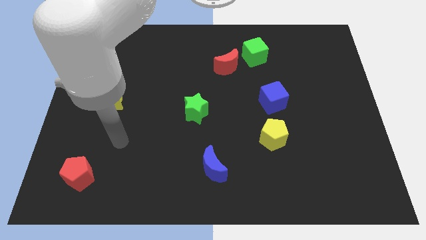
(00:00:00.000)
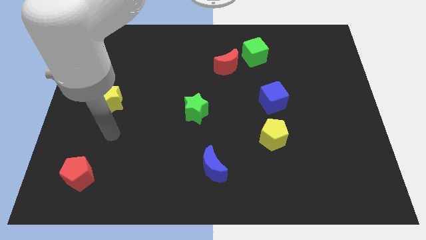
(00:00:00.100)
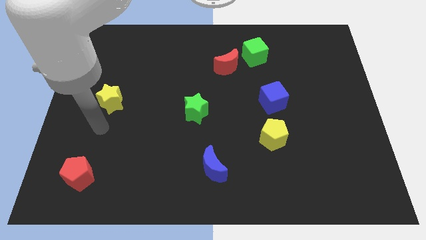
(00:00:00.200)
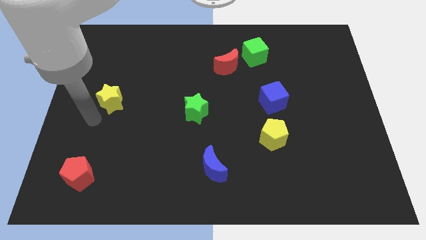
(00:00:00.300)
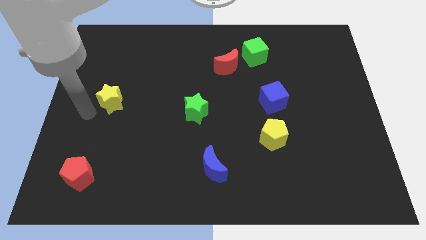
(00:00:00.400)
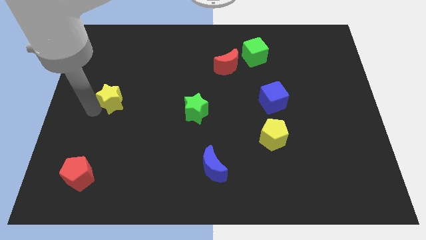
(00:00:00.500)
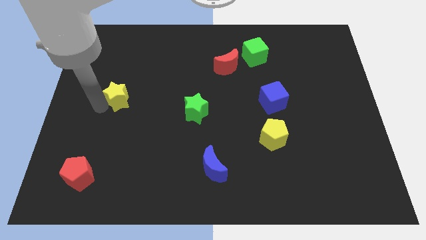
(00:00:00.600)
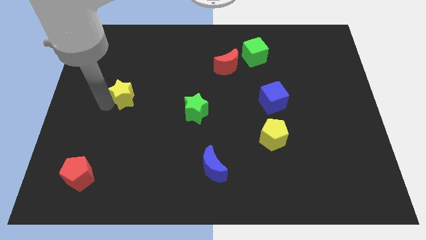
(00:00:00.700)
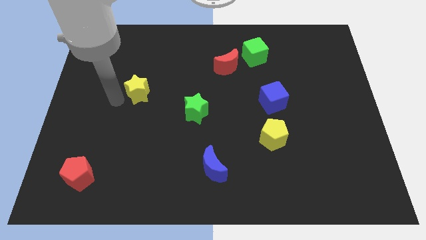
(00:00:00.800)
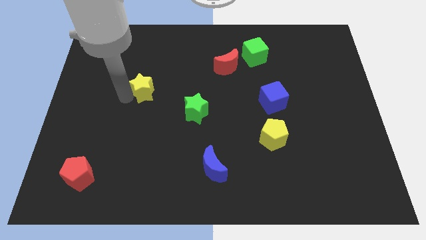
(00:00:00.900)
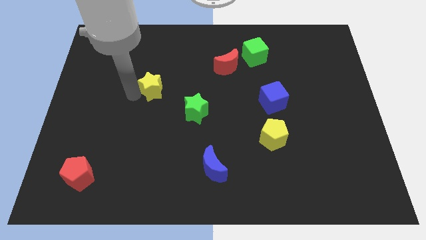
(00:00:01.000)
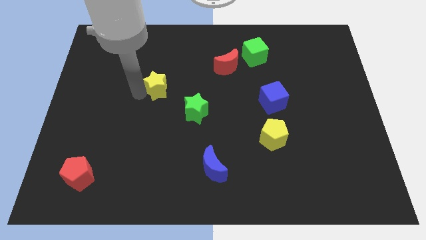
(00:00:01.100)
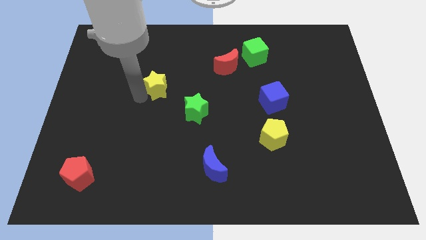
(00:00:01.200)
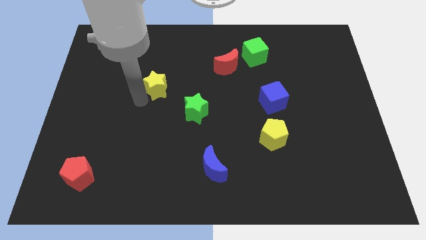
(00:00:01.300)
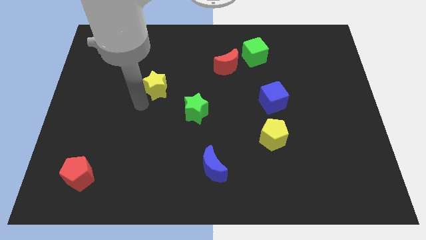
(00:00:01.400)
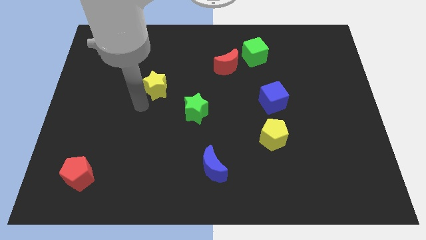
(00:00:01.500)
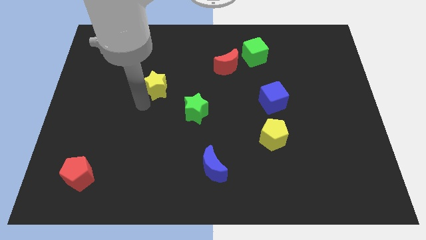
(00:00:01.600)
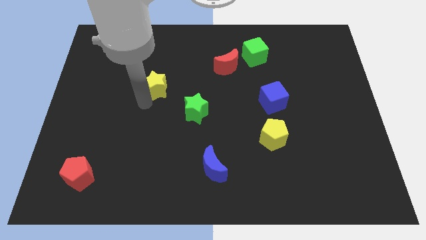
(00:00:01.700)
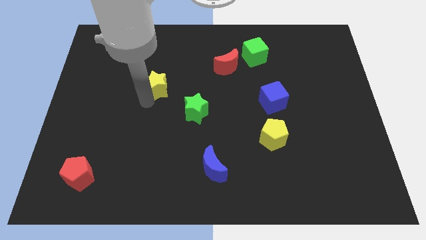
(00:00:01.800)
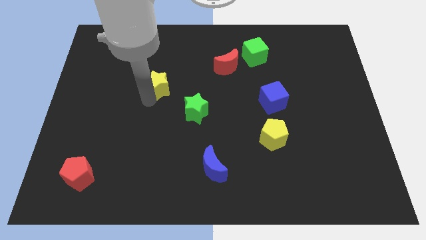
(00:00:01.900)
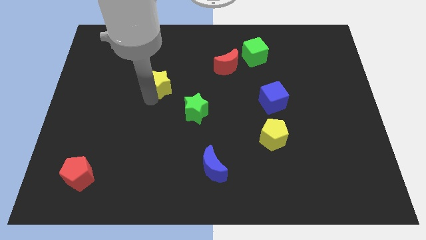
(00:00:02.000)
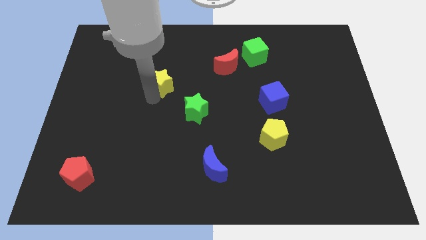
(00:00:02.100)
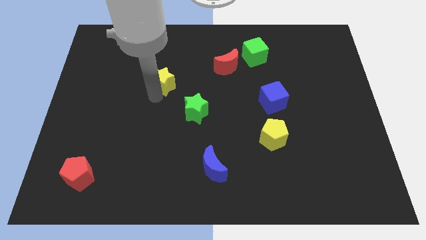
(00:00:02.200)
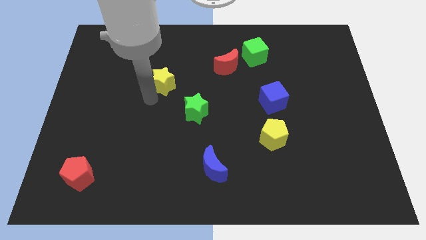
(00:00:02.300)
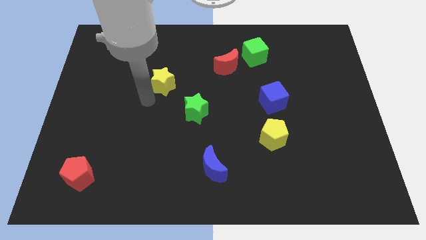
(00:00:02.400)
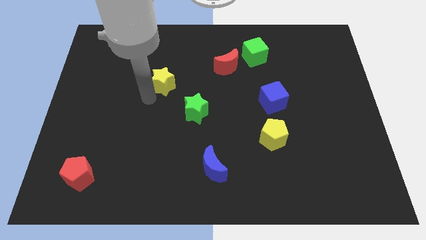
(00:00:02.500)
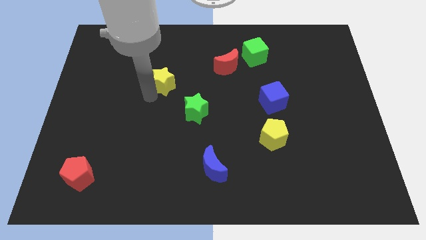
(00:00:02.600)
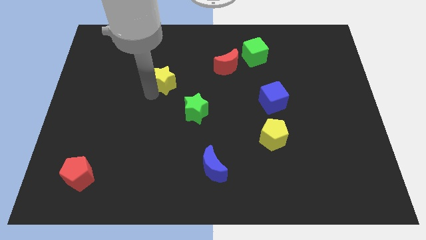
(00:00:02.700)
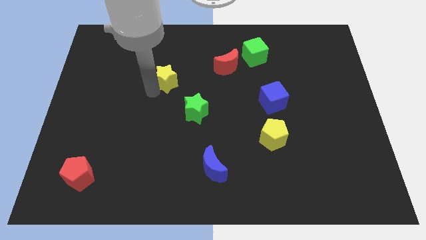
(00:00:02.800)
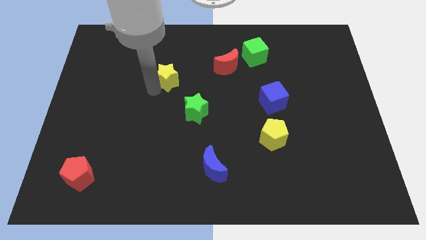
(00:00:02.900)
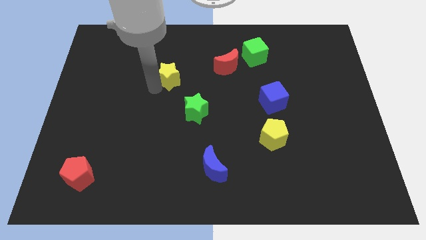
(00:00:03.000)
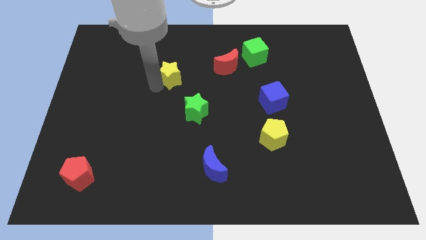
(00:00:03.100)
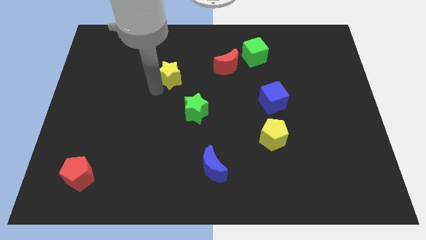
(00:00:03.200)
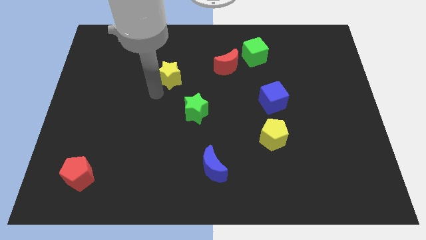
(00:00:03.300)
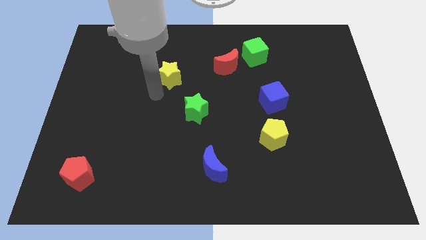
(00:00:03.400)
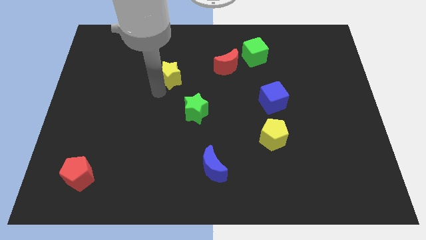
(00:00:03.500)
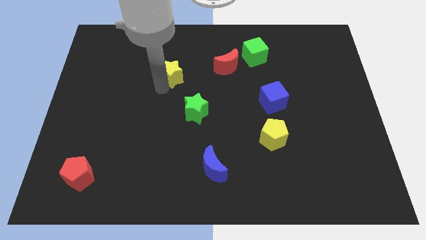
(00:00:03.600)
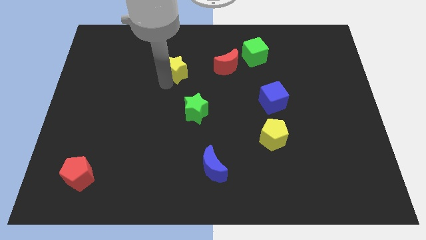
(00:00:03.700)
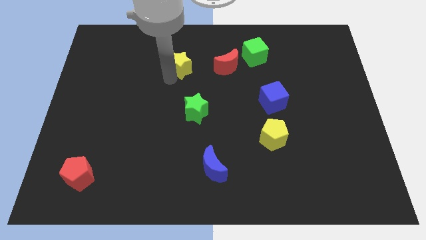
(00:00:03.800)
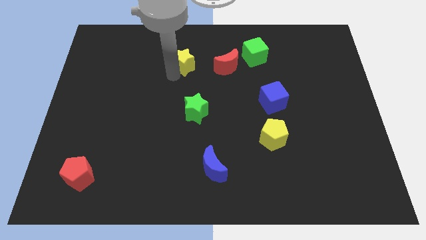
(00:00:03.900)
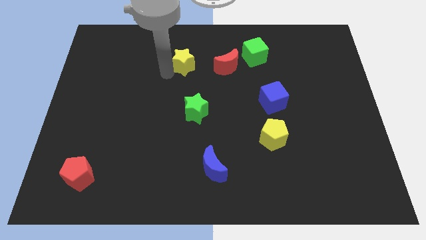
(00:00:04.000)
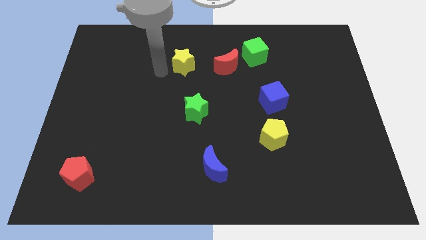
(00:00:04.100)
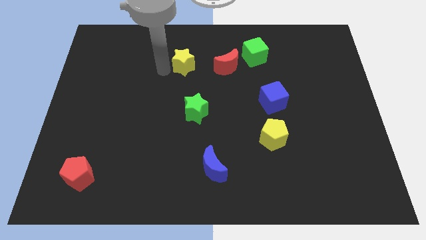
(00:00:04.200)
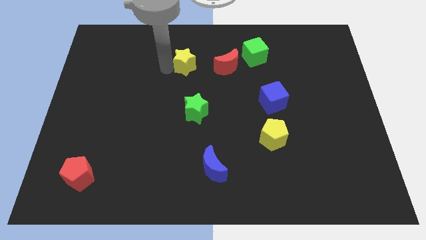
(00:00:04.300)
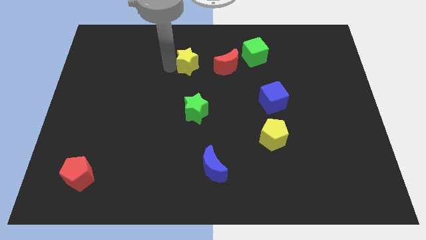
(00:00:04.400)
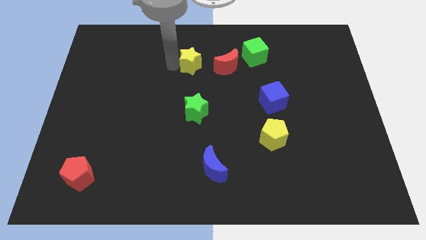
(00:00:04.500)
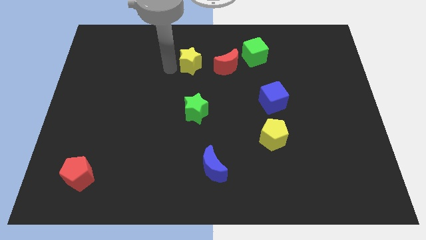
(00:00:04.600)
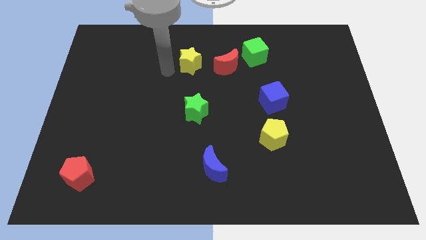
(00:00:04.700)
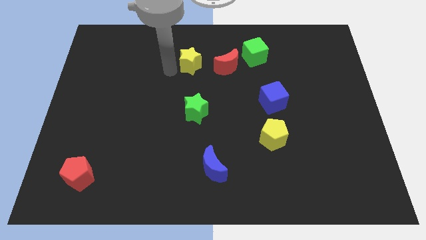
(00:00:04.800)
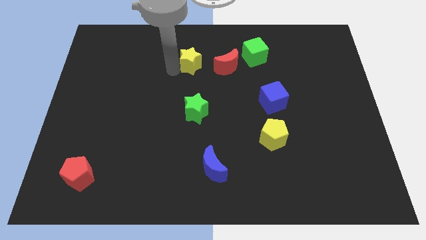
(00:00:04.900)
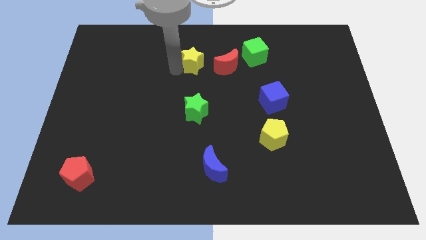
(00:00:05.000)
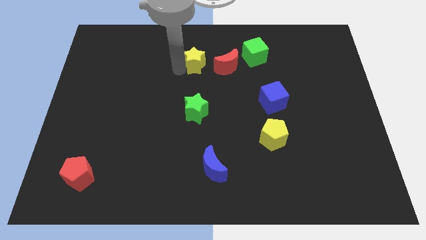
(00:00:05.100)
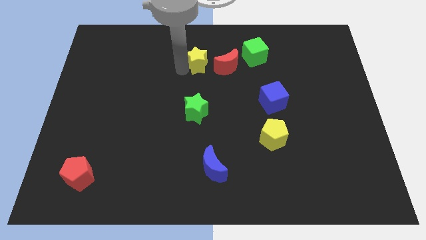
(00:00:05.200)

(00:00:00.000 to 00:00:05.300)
put the yellow star to the left side of the green cube

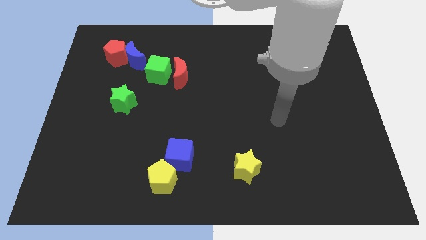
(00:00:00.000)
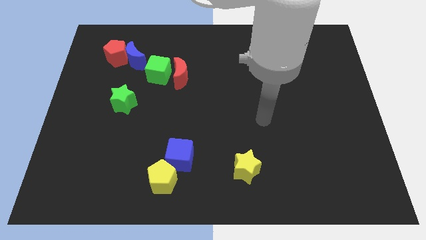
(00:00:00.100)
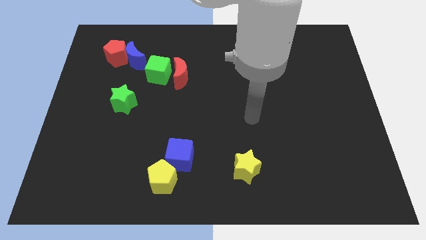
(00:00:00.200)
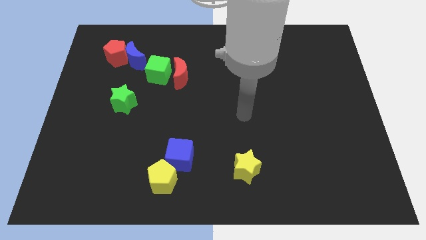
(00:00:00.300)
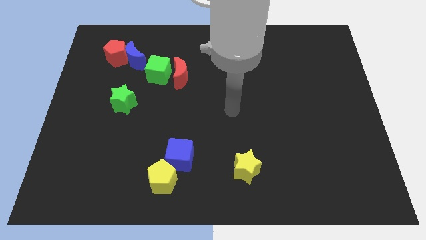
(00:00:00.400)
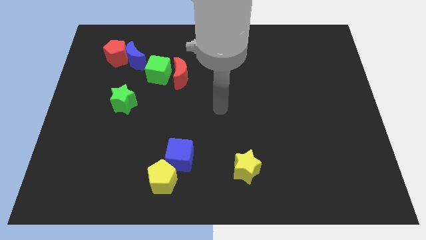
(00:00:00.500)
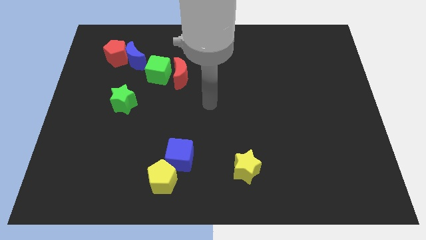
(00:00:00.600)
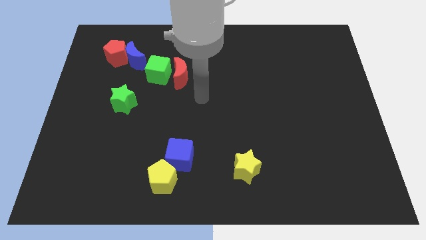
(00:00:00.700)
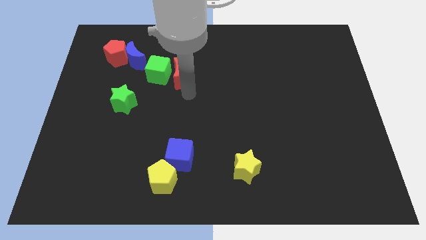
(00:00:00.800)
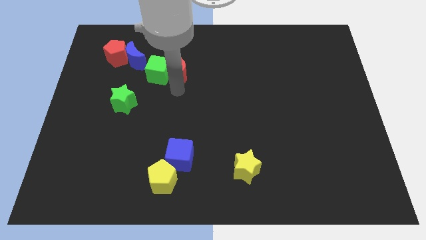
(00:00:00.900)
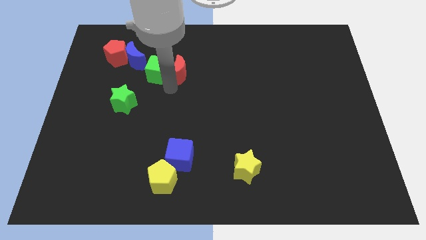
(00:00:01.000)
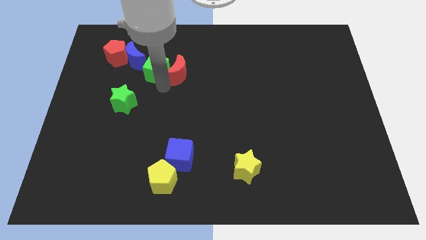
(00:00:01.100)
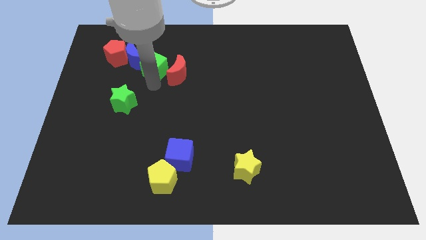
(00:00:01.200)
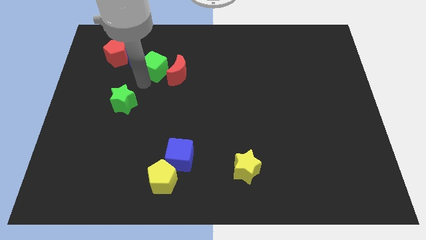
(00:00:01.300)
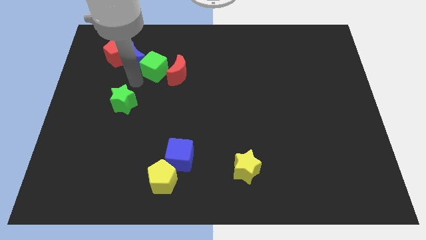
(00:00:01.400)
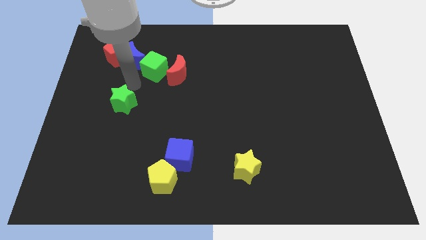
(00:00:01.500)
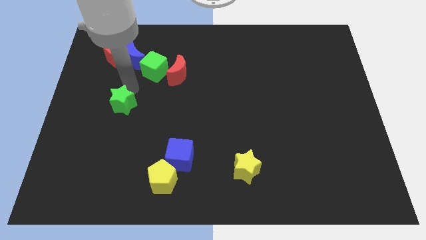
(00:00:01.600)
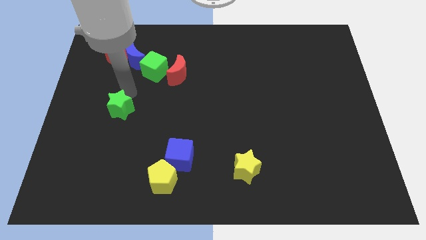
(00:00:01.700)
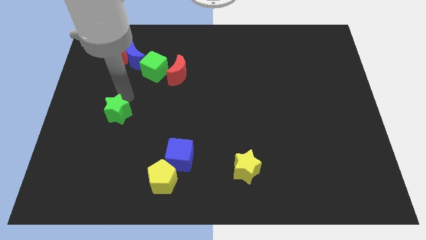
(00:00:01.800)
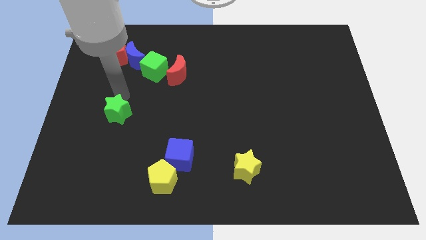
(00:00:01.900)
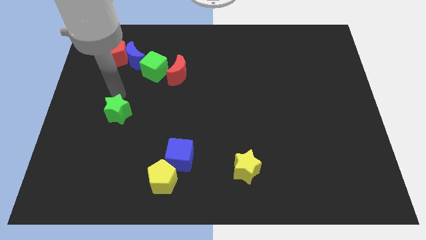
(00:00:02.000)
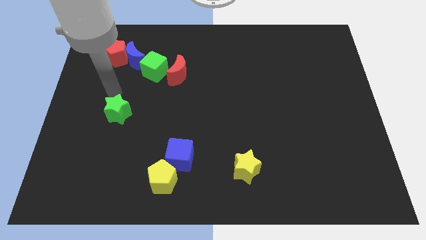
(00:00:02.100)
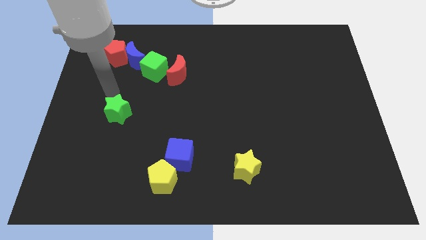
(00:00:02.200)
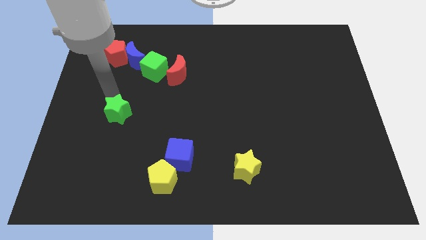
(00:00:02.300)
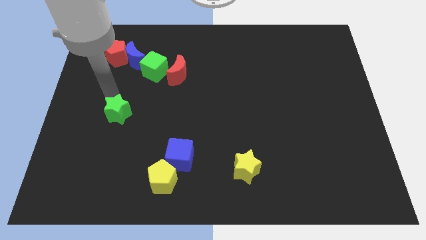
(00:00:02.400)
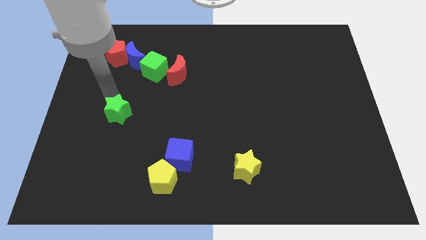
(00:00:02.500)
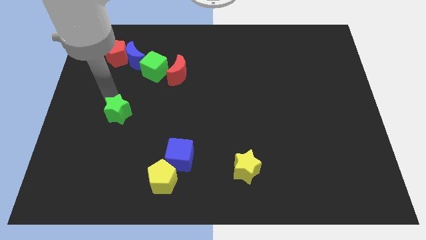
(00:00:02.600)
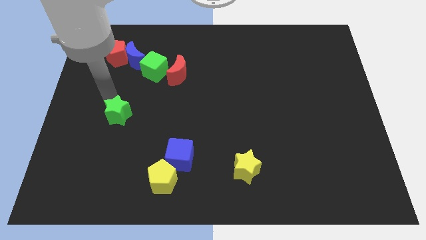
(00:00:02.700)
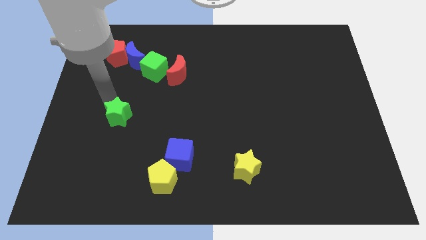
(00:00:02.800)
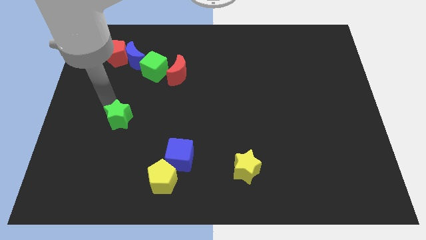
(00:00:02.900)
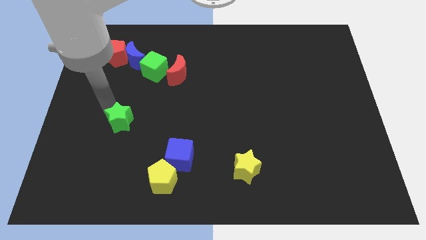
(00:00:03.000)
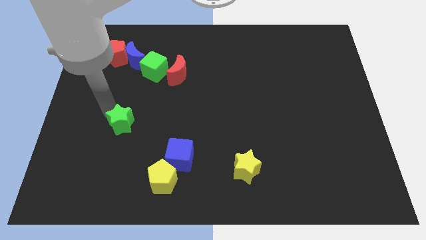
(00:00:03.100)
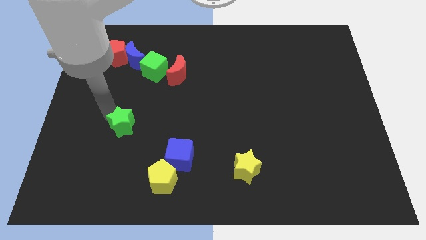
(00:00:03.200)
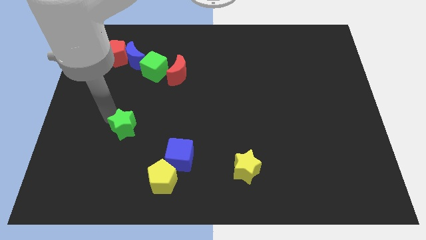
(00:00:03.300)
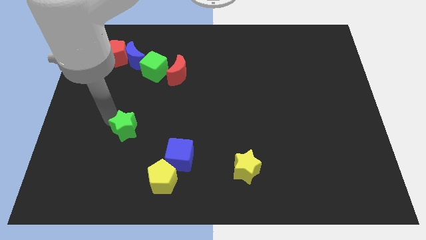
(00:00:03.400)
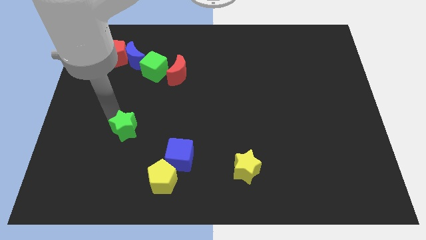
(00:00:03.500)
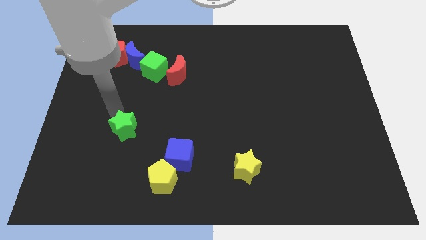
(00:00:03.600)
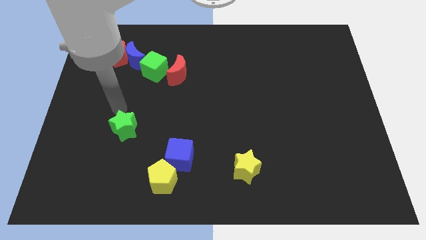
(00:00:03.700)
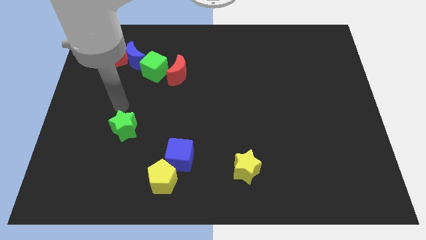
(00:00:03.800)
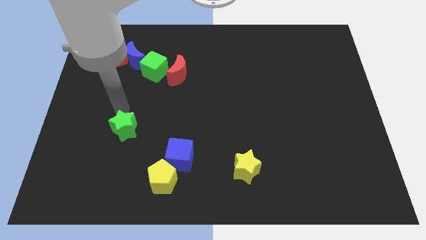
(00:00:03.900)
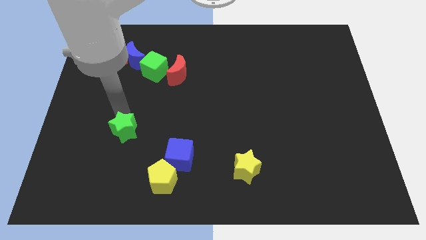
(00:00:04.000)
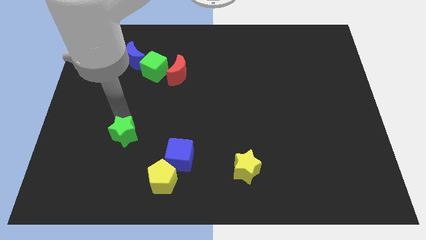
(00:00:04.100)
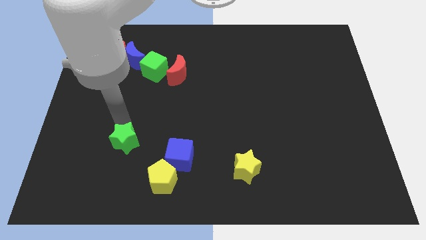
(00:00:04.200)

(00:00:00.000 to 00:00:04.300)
move the green star to the left side of the blue cube
